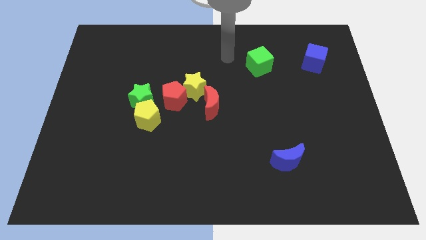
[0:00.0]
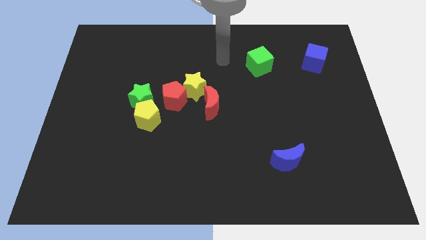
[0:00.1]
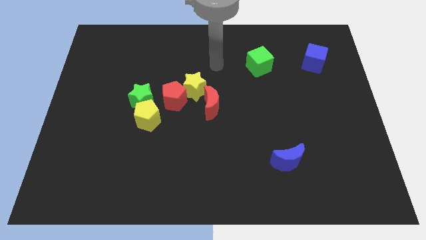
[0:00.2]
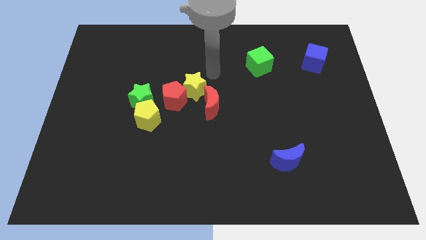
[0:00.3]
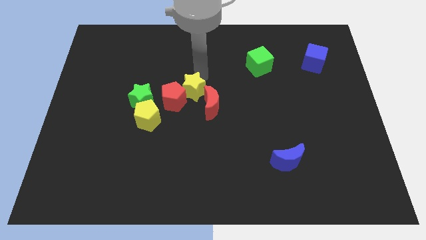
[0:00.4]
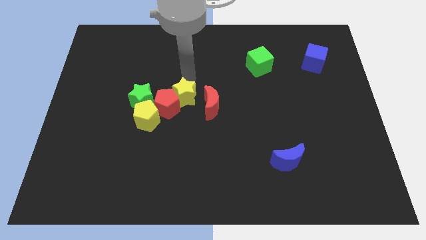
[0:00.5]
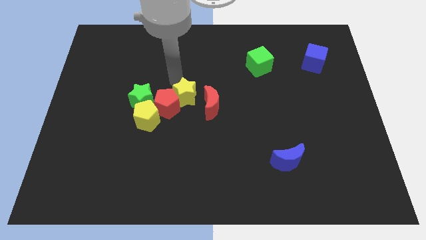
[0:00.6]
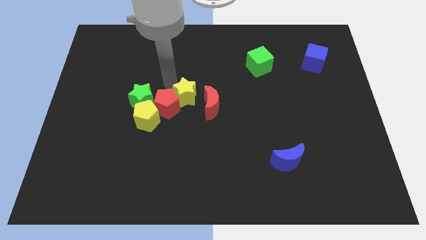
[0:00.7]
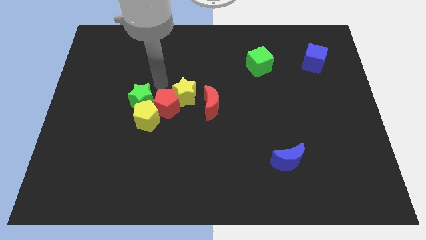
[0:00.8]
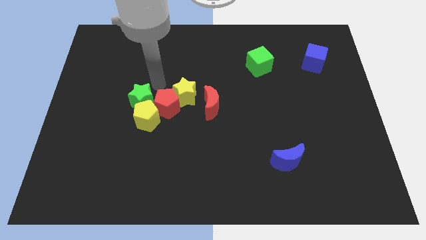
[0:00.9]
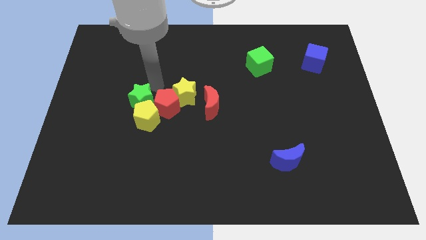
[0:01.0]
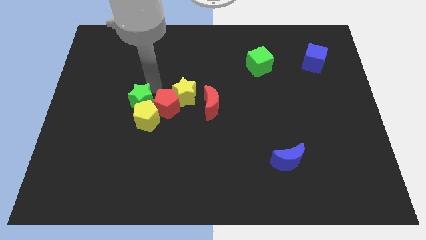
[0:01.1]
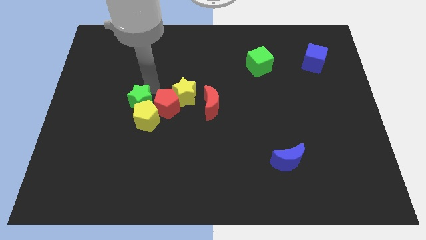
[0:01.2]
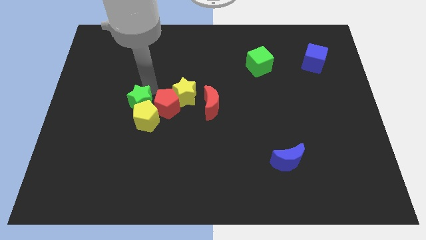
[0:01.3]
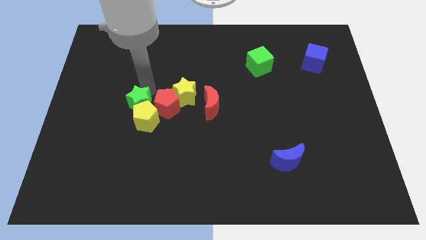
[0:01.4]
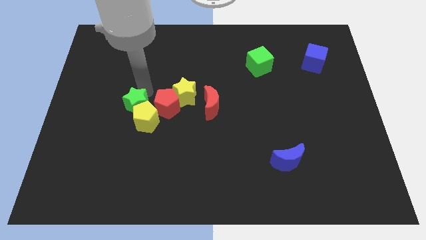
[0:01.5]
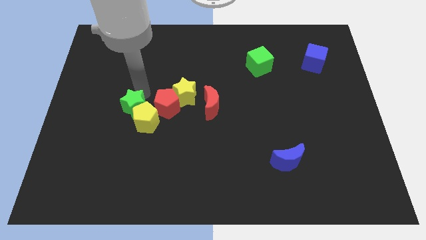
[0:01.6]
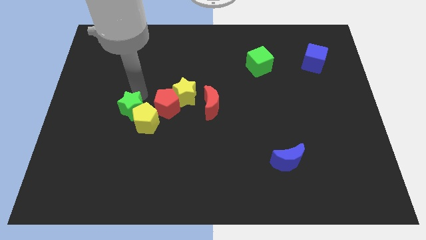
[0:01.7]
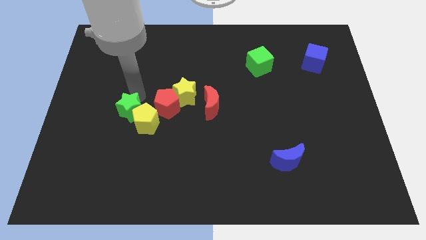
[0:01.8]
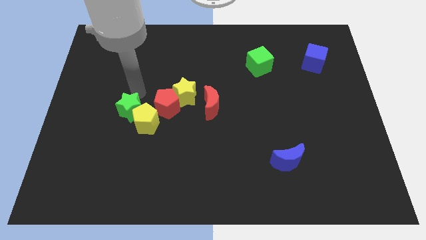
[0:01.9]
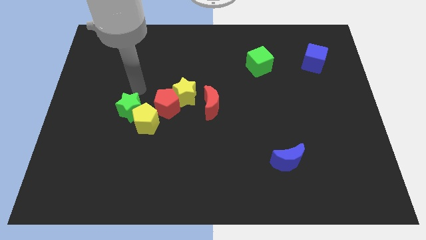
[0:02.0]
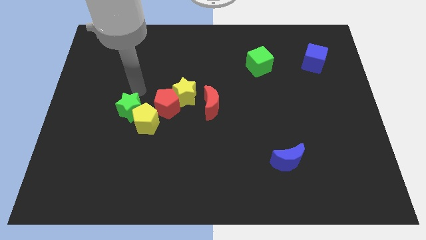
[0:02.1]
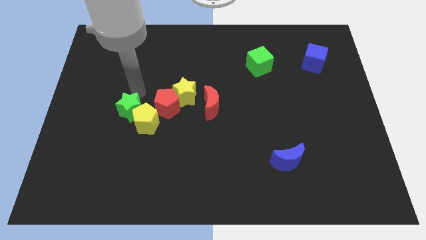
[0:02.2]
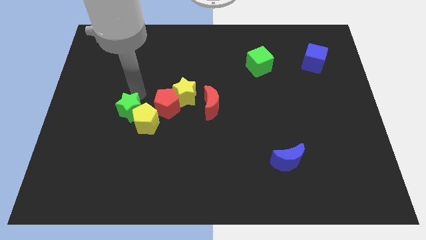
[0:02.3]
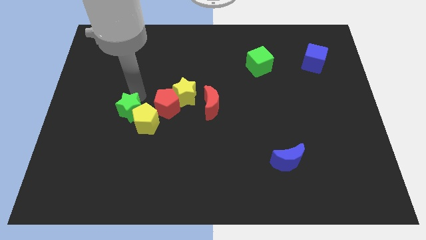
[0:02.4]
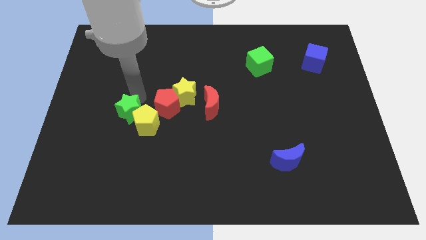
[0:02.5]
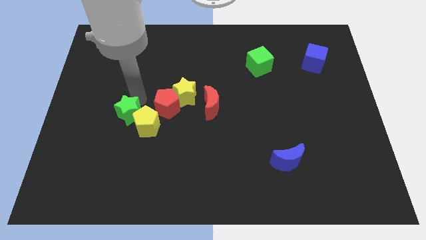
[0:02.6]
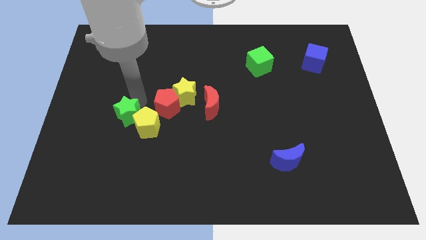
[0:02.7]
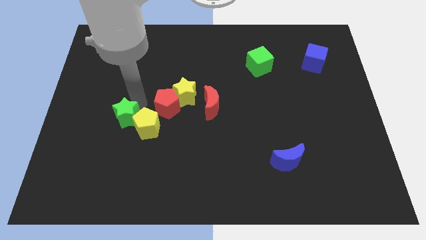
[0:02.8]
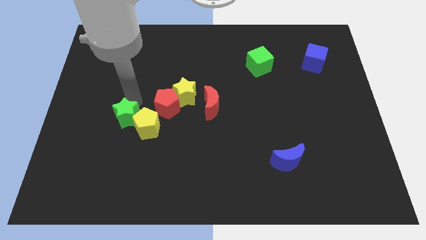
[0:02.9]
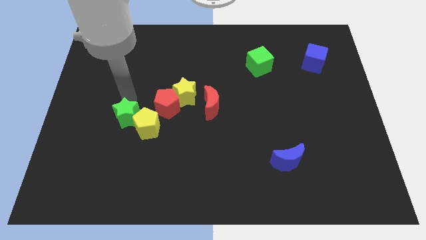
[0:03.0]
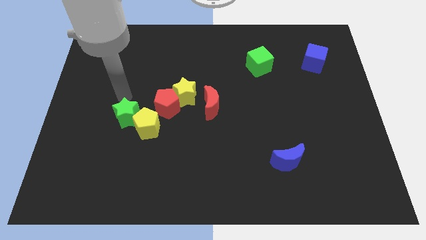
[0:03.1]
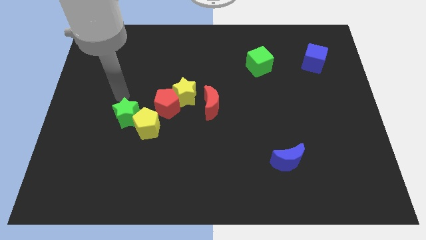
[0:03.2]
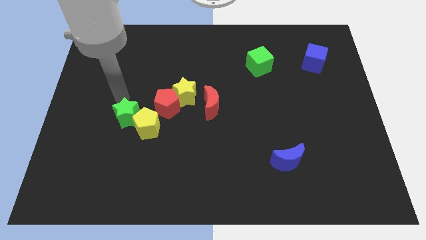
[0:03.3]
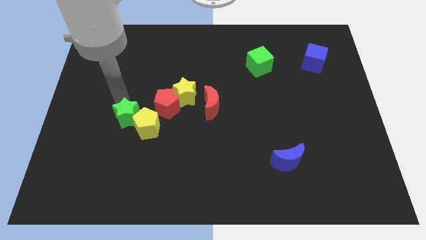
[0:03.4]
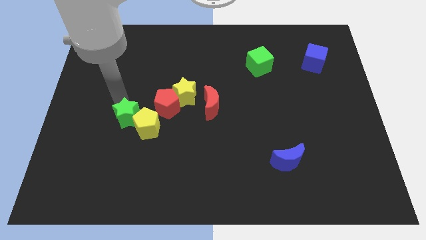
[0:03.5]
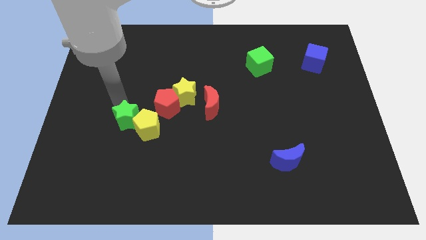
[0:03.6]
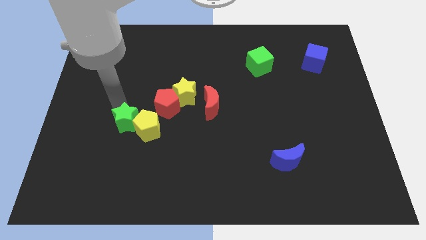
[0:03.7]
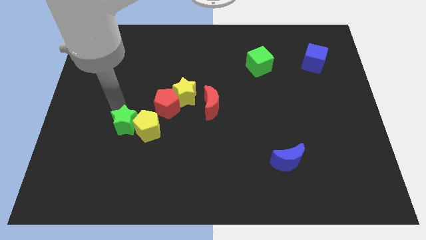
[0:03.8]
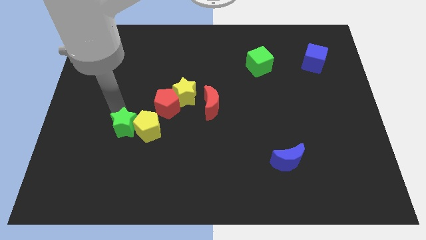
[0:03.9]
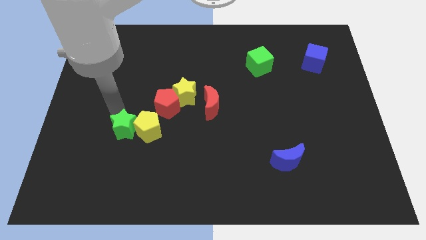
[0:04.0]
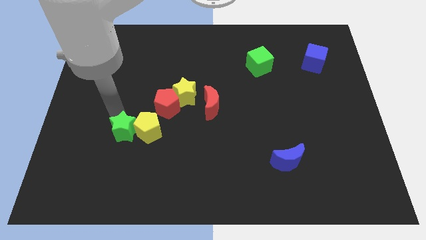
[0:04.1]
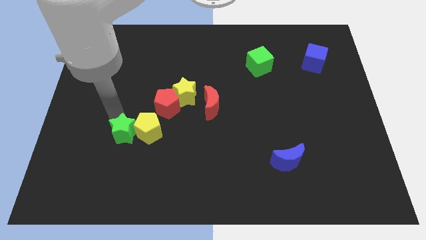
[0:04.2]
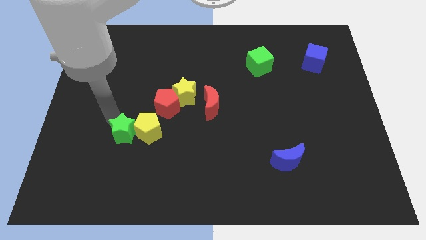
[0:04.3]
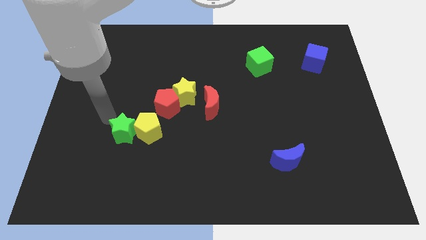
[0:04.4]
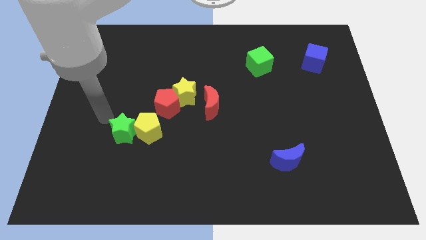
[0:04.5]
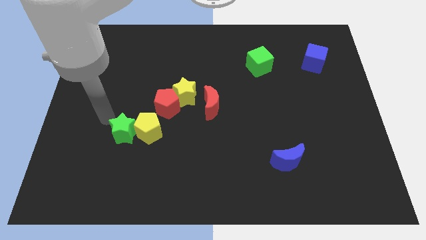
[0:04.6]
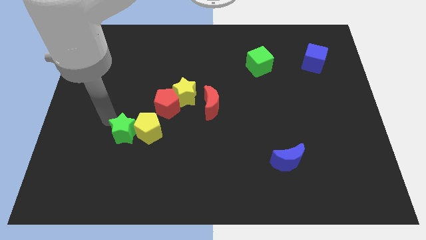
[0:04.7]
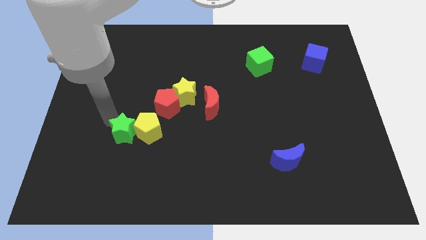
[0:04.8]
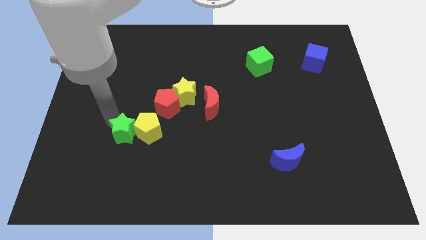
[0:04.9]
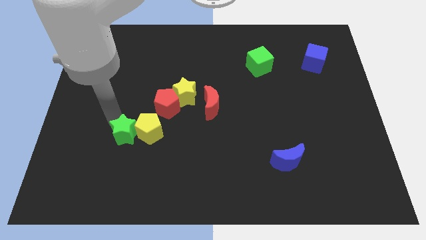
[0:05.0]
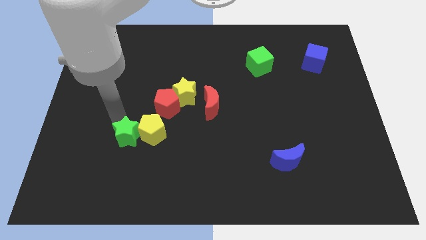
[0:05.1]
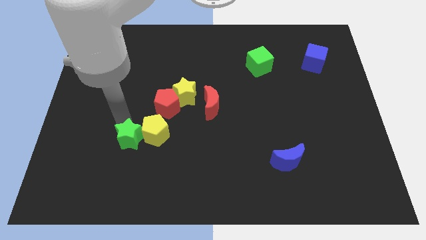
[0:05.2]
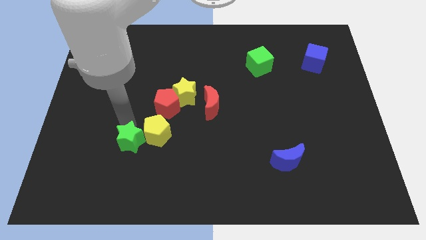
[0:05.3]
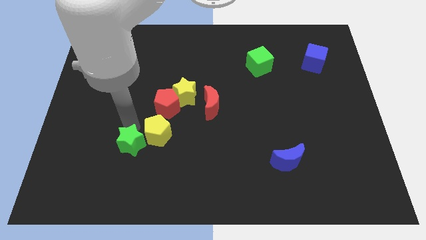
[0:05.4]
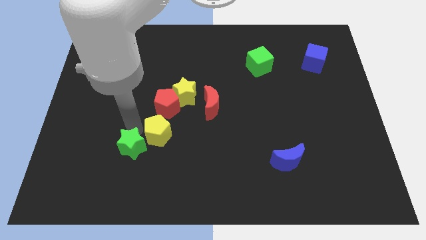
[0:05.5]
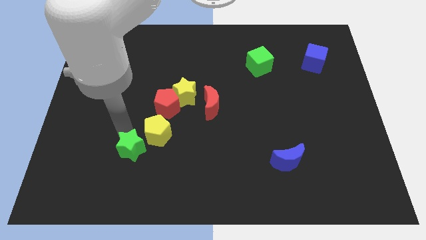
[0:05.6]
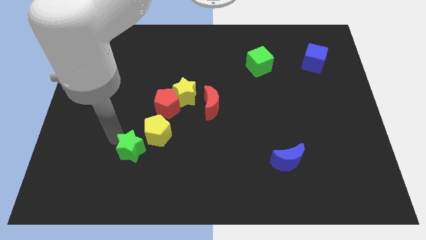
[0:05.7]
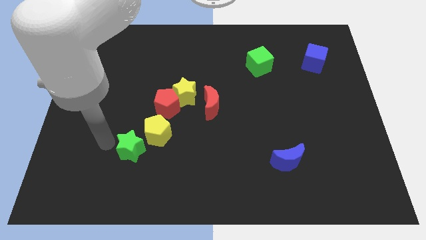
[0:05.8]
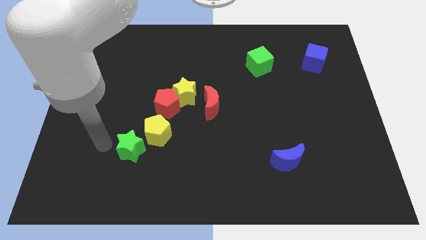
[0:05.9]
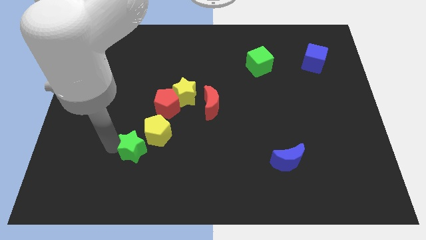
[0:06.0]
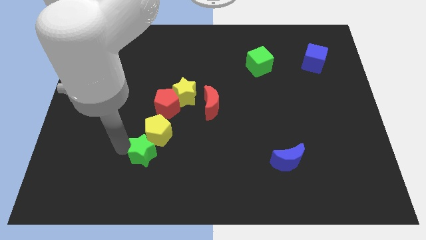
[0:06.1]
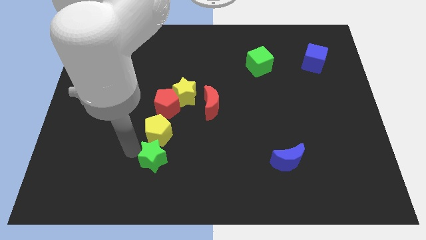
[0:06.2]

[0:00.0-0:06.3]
push the green star to the bottom right side of the yellow pentagon
